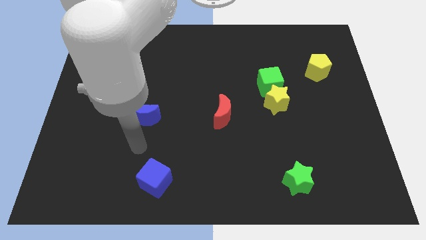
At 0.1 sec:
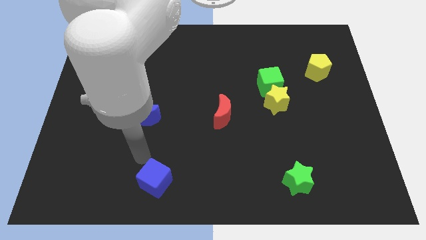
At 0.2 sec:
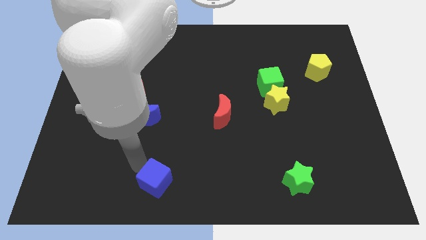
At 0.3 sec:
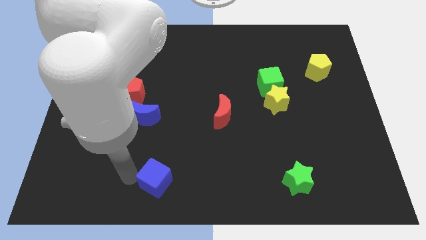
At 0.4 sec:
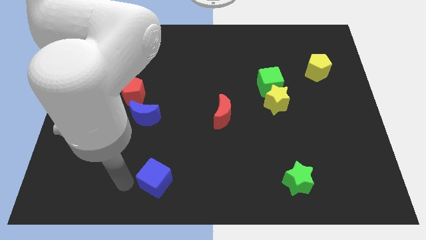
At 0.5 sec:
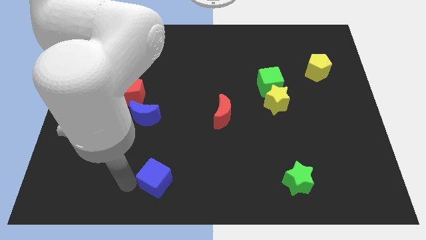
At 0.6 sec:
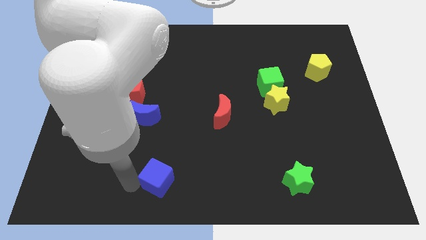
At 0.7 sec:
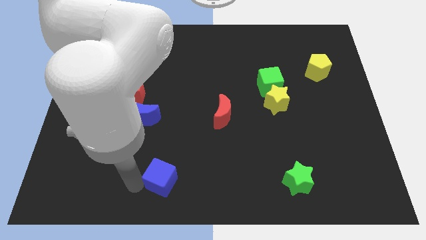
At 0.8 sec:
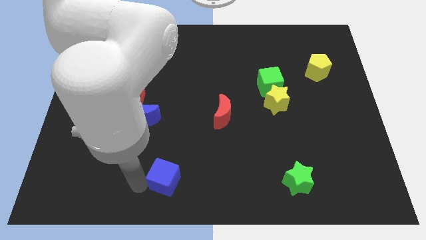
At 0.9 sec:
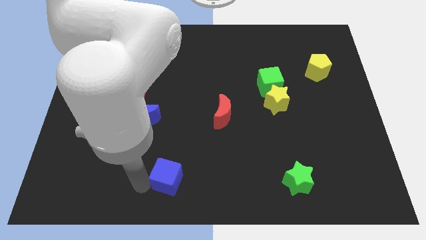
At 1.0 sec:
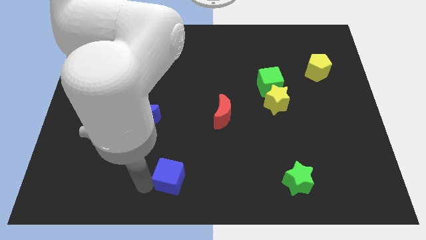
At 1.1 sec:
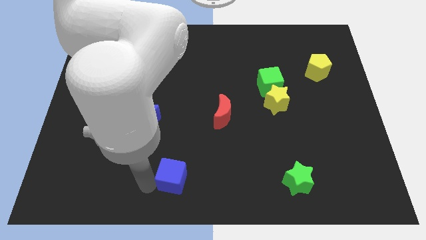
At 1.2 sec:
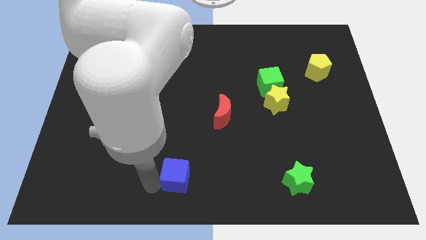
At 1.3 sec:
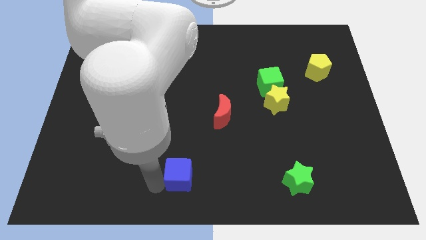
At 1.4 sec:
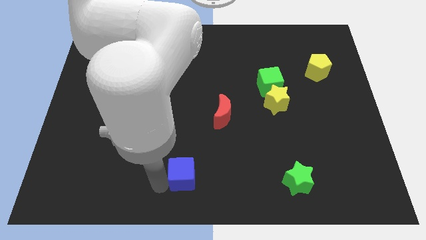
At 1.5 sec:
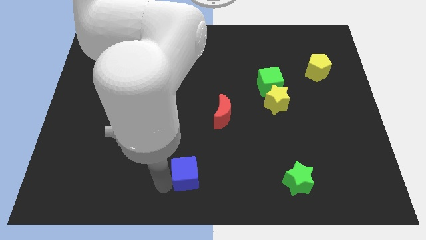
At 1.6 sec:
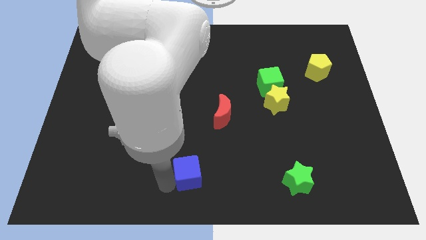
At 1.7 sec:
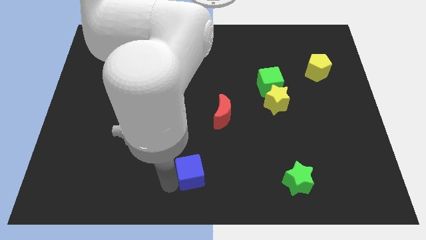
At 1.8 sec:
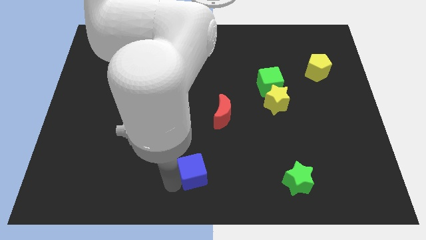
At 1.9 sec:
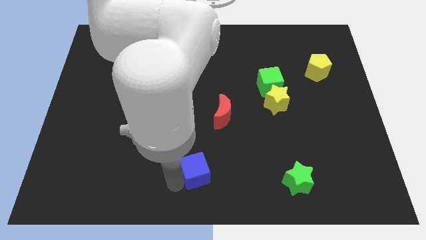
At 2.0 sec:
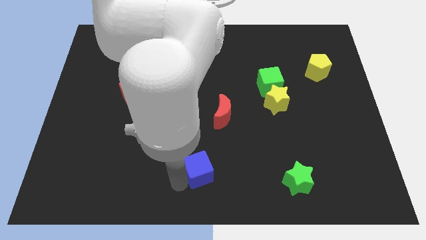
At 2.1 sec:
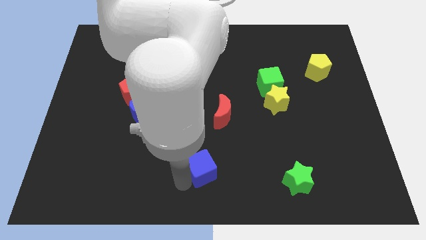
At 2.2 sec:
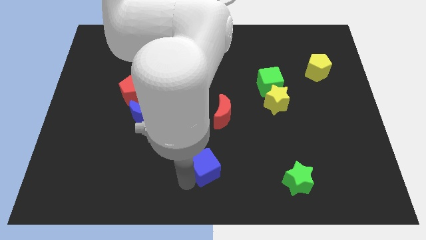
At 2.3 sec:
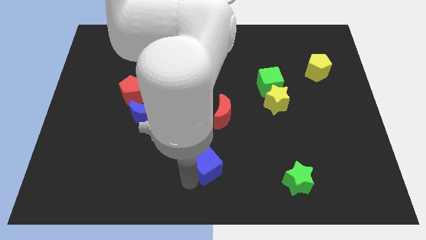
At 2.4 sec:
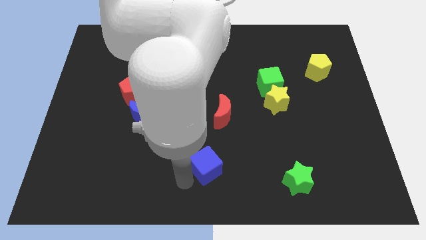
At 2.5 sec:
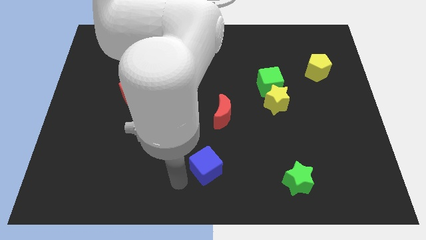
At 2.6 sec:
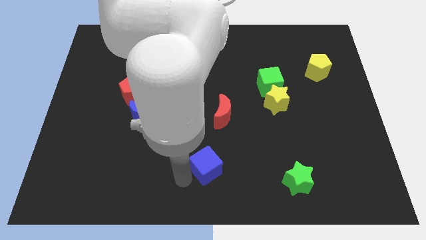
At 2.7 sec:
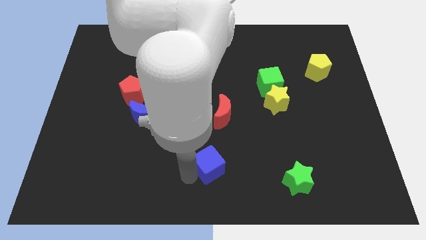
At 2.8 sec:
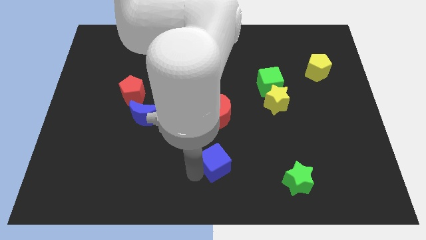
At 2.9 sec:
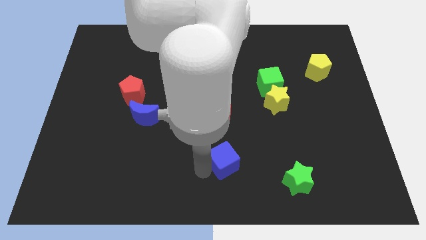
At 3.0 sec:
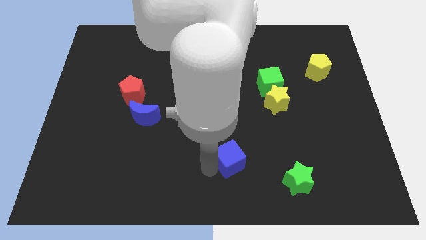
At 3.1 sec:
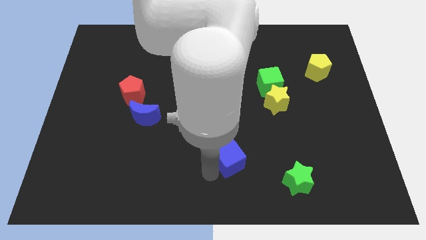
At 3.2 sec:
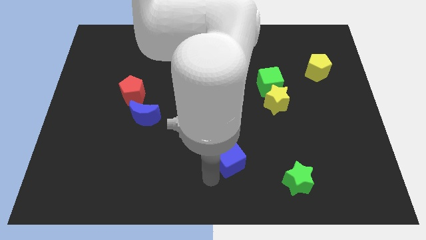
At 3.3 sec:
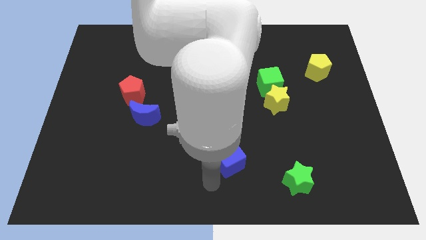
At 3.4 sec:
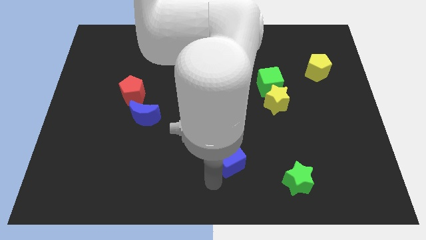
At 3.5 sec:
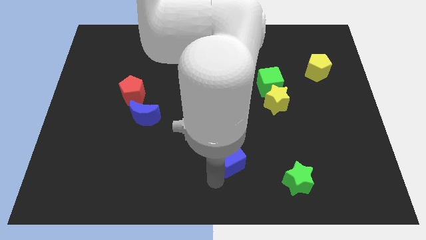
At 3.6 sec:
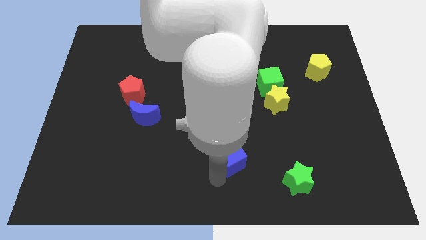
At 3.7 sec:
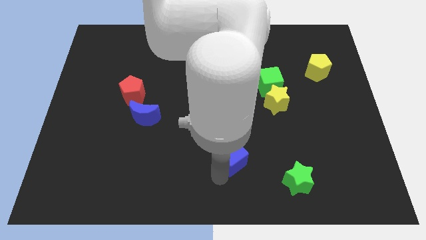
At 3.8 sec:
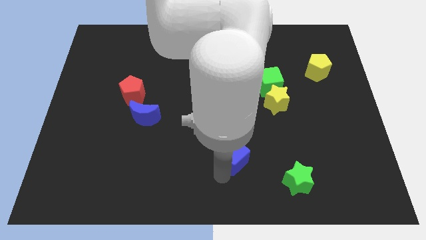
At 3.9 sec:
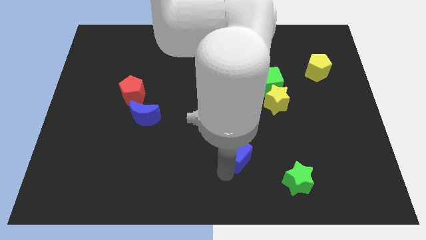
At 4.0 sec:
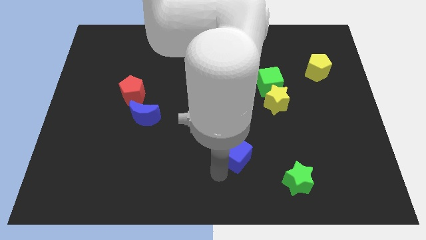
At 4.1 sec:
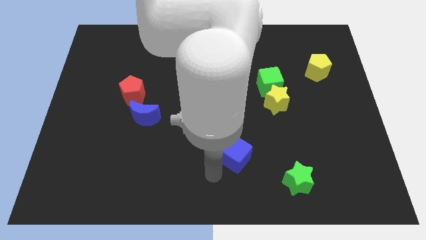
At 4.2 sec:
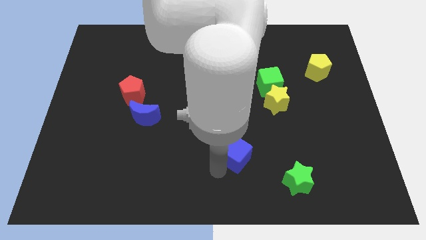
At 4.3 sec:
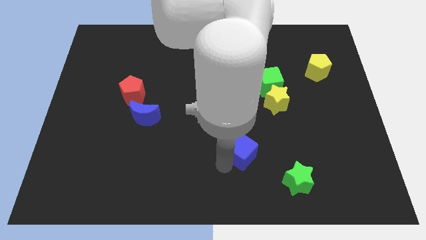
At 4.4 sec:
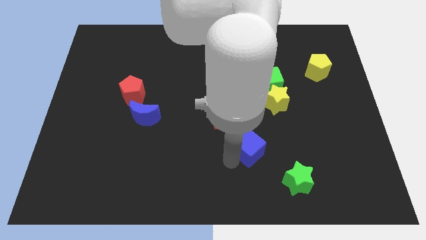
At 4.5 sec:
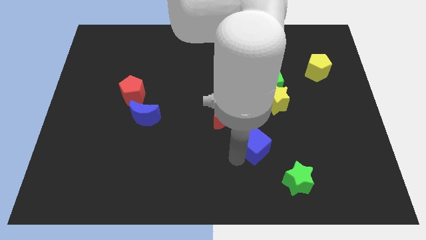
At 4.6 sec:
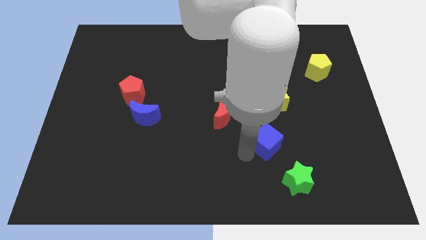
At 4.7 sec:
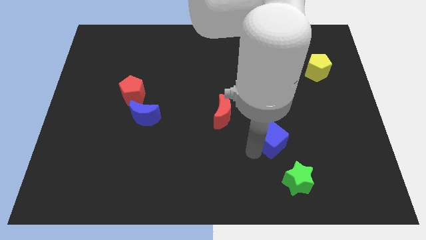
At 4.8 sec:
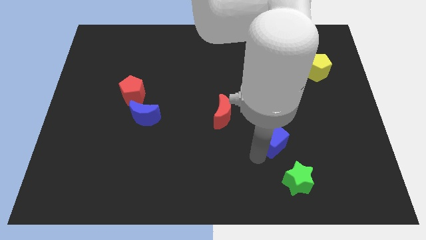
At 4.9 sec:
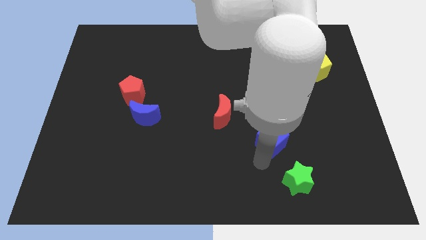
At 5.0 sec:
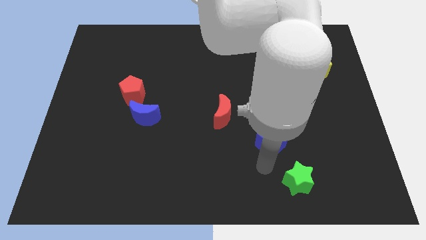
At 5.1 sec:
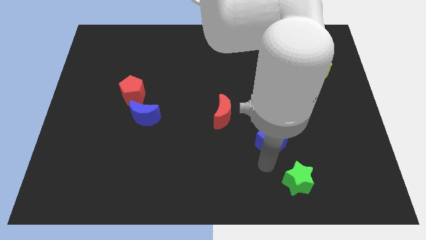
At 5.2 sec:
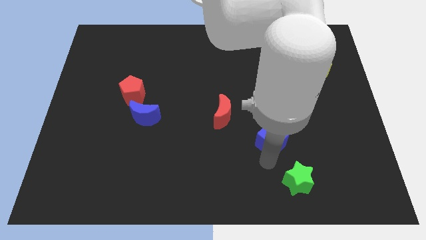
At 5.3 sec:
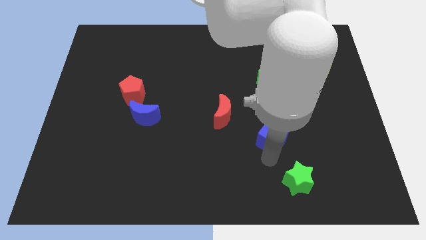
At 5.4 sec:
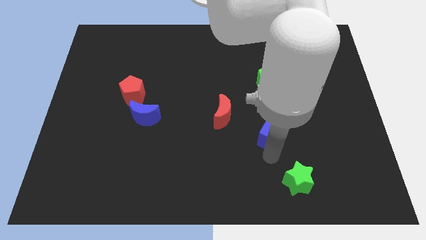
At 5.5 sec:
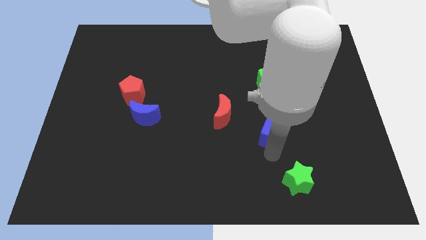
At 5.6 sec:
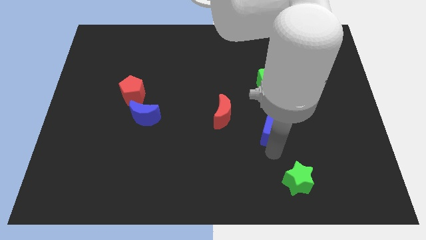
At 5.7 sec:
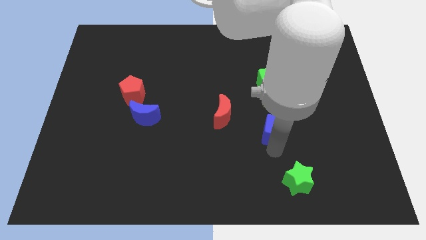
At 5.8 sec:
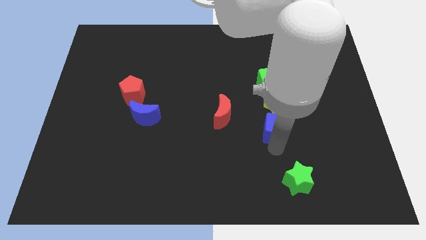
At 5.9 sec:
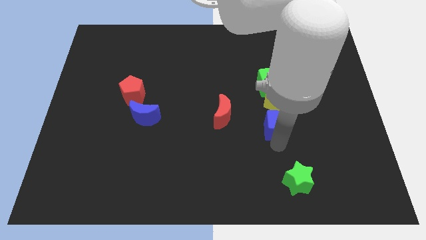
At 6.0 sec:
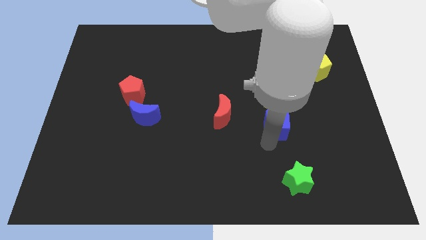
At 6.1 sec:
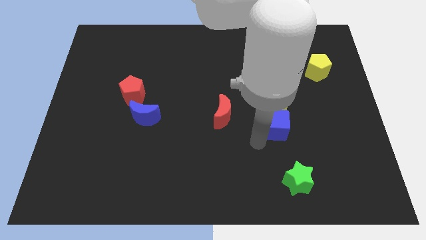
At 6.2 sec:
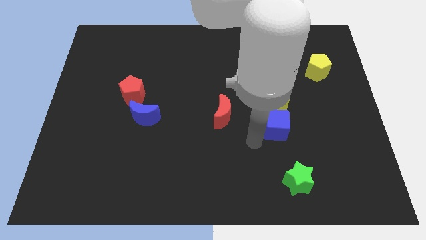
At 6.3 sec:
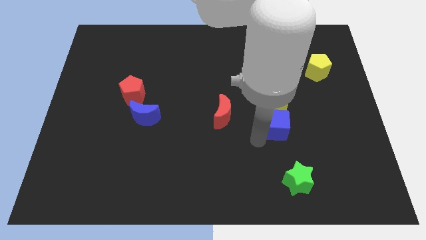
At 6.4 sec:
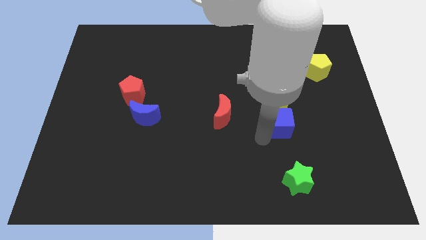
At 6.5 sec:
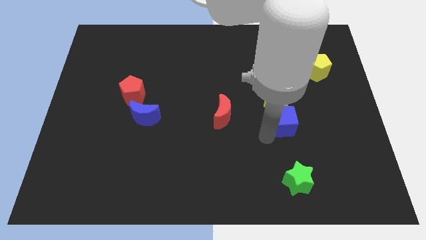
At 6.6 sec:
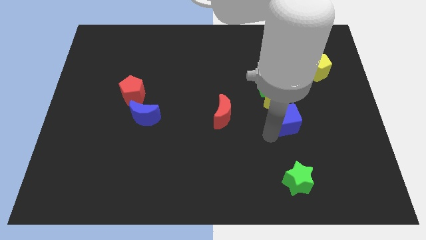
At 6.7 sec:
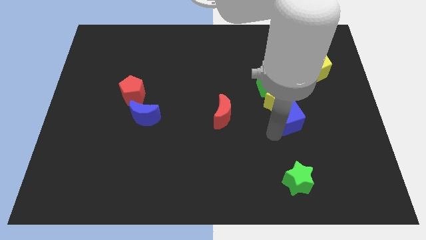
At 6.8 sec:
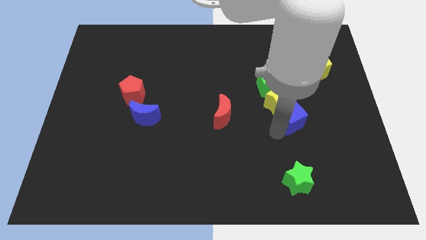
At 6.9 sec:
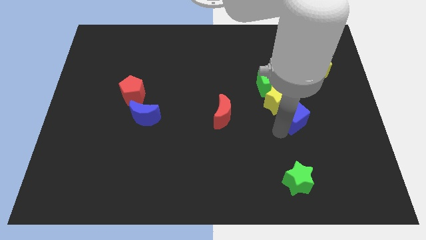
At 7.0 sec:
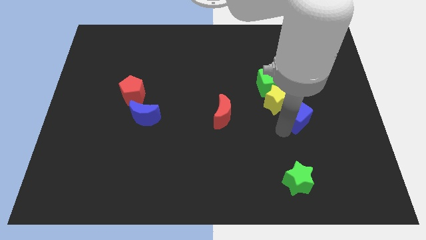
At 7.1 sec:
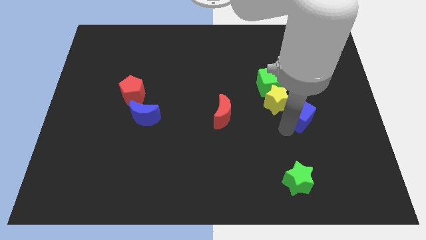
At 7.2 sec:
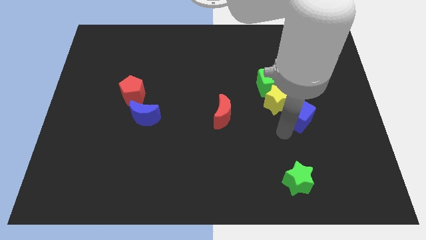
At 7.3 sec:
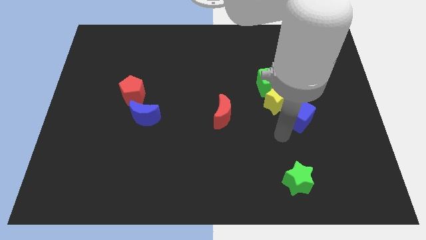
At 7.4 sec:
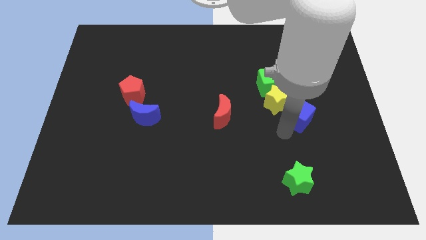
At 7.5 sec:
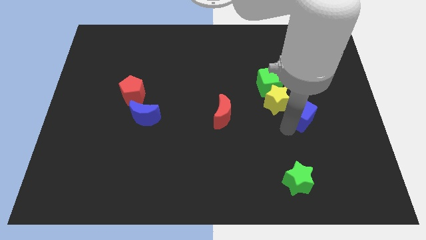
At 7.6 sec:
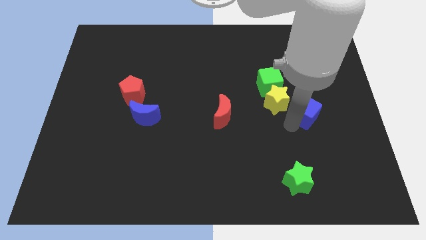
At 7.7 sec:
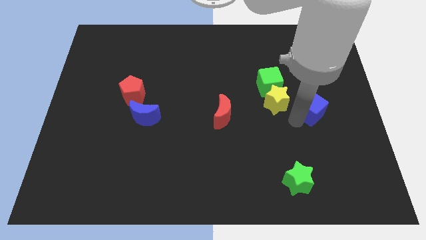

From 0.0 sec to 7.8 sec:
slide the blue cube to the bottom of the yellow pentagon
